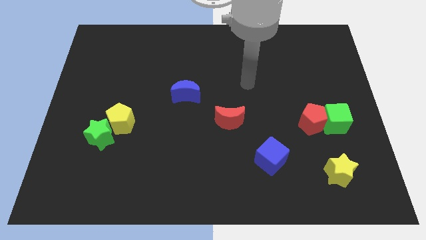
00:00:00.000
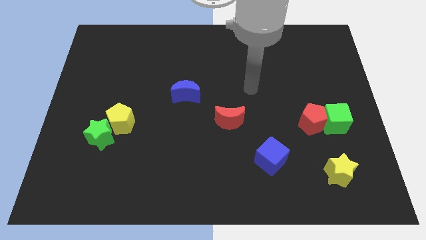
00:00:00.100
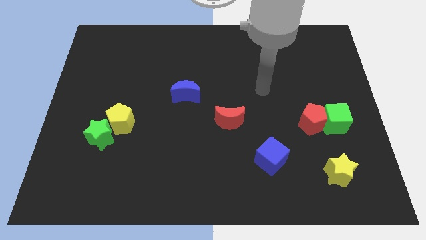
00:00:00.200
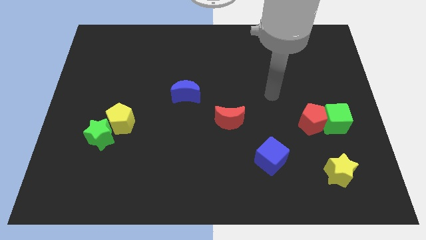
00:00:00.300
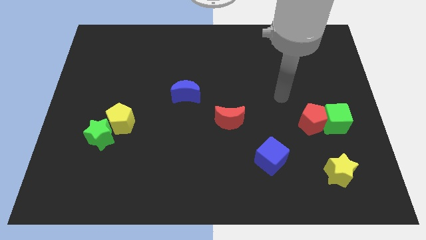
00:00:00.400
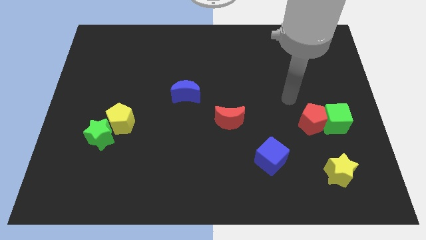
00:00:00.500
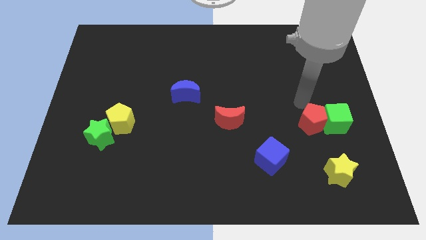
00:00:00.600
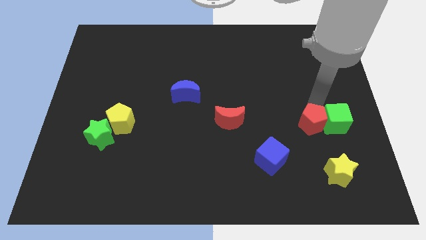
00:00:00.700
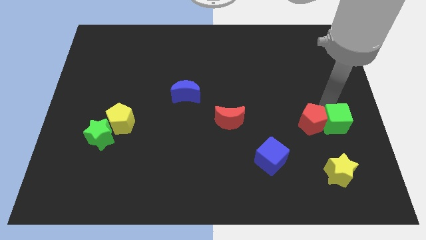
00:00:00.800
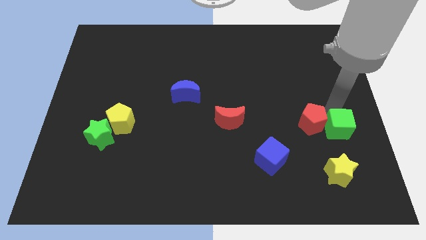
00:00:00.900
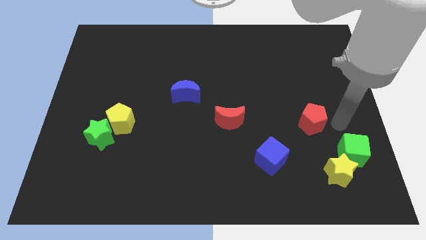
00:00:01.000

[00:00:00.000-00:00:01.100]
separate the red pentagon from the green cube

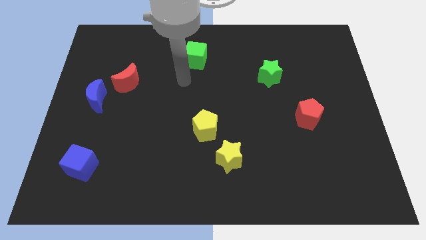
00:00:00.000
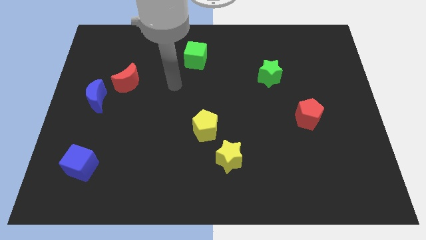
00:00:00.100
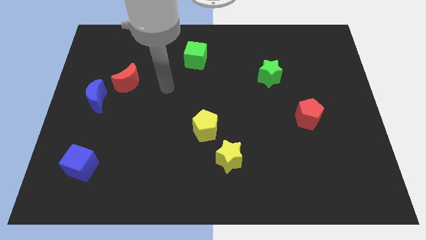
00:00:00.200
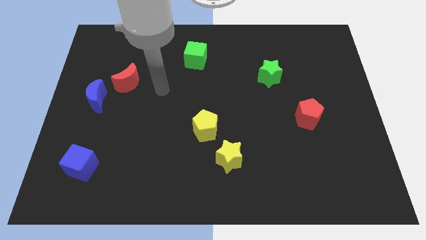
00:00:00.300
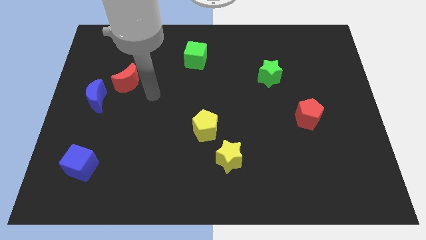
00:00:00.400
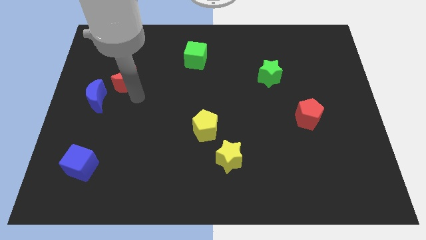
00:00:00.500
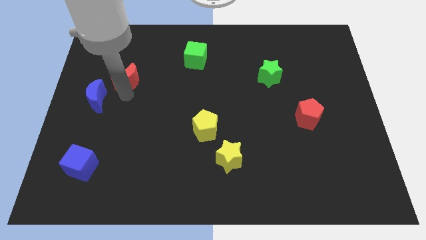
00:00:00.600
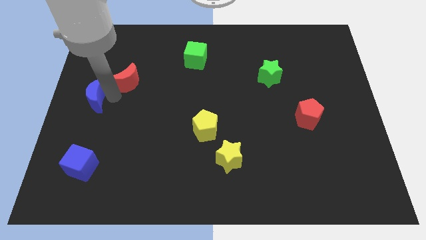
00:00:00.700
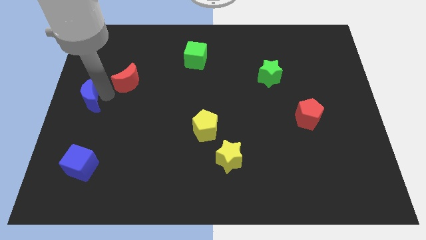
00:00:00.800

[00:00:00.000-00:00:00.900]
move the red moon away from the blue moon

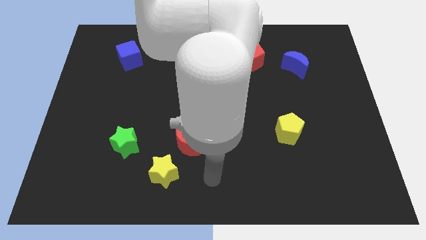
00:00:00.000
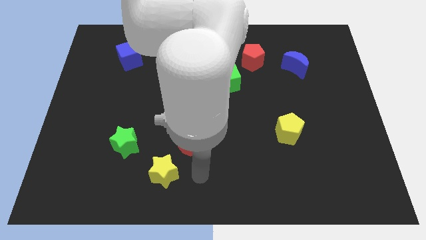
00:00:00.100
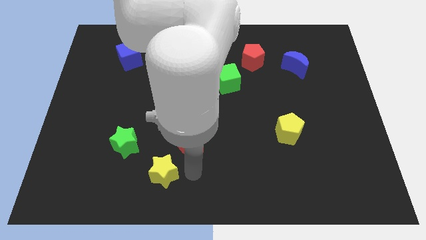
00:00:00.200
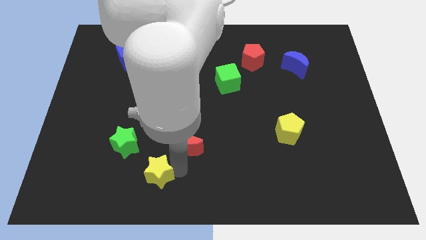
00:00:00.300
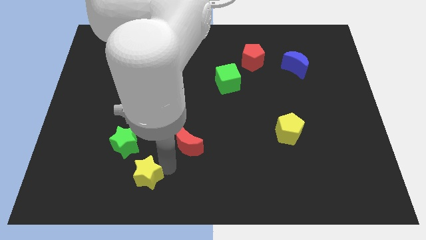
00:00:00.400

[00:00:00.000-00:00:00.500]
pull the red moon apart from the yellow star

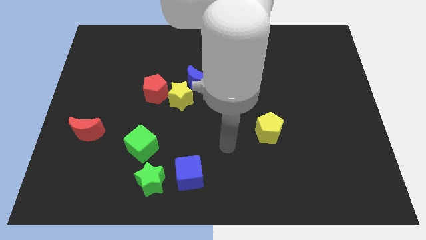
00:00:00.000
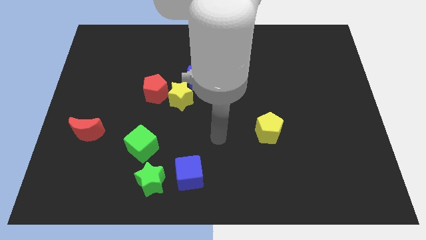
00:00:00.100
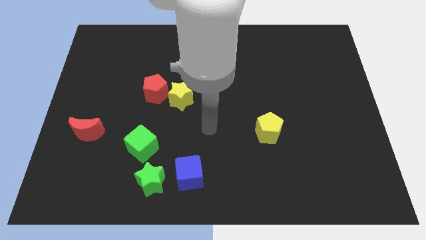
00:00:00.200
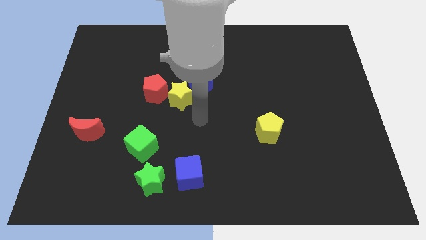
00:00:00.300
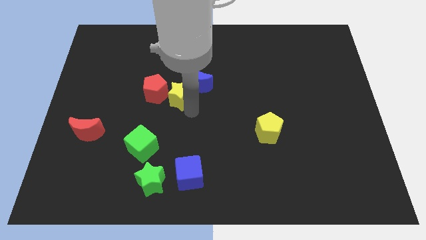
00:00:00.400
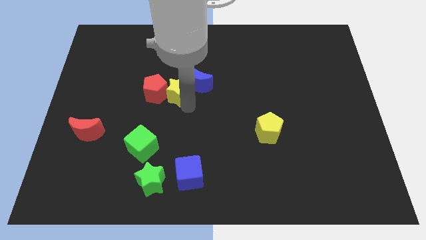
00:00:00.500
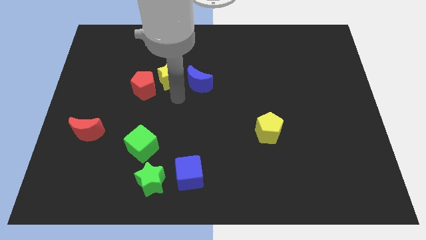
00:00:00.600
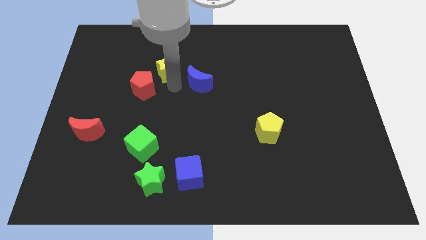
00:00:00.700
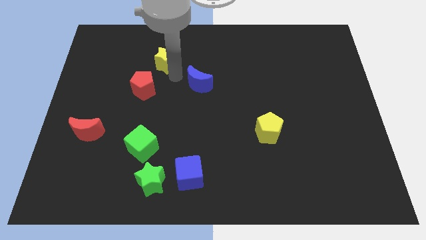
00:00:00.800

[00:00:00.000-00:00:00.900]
move the blue moon away from the yellow star

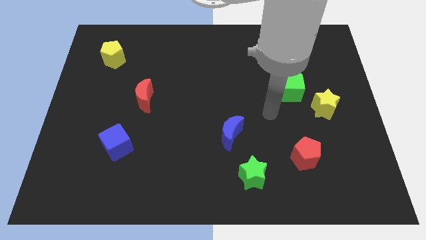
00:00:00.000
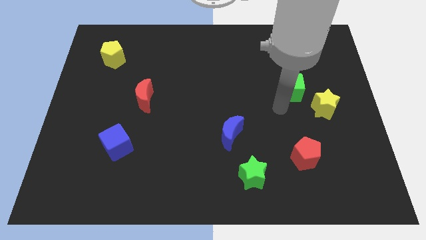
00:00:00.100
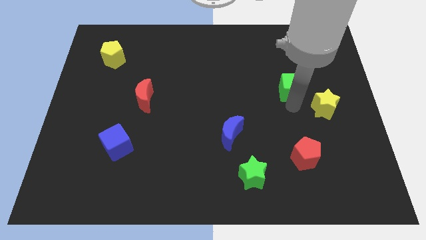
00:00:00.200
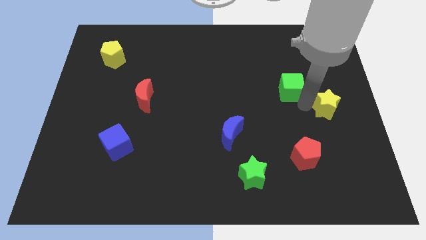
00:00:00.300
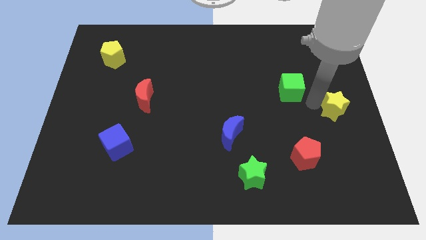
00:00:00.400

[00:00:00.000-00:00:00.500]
move the green cube away from the yellow star

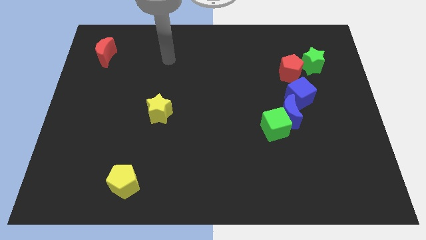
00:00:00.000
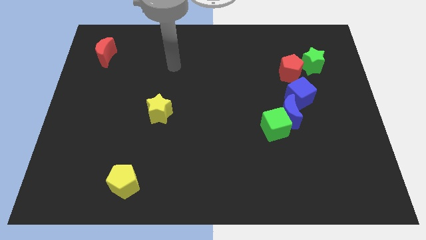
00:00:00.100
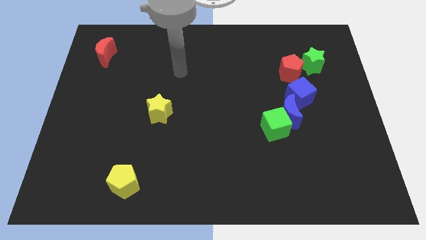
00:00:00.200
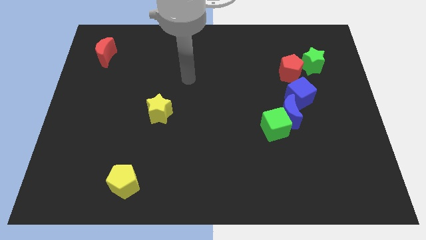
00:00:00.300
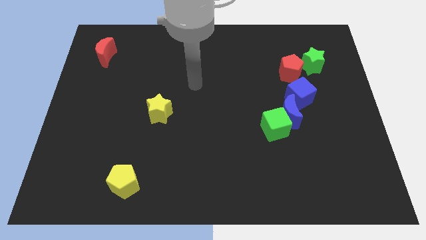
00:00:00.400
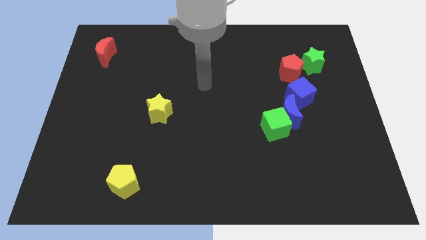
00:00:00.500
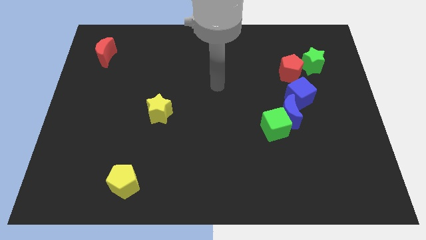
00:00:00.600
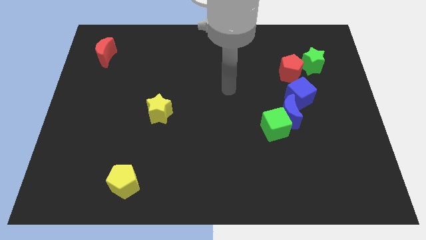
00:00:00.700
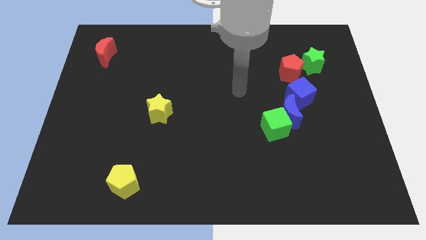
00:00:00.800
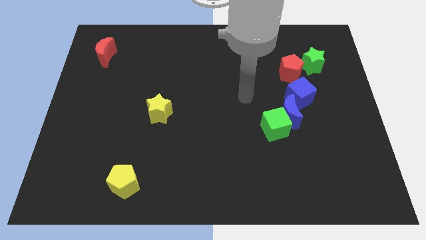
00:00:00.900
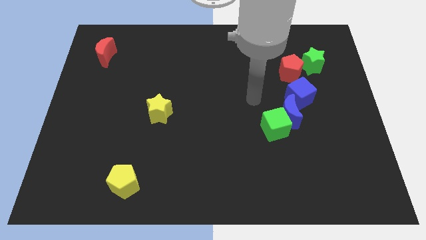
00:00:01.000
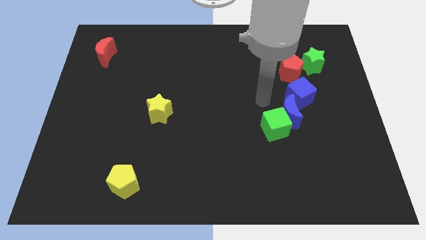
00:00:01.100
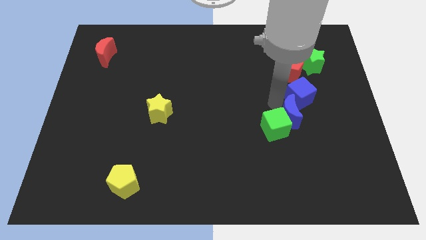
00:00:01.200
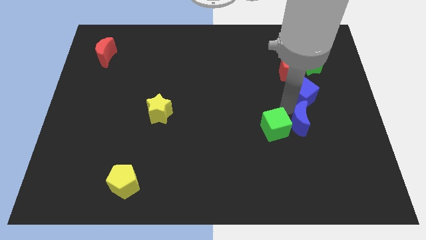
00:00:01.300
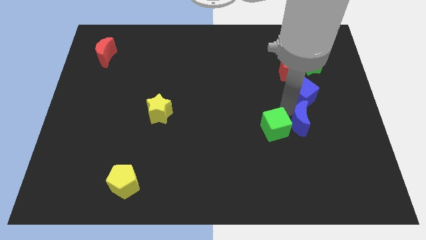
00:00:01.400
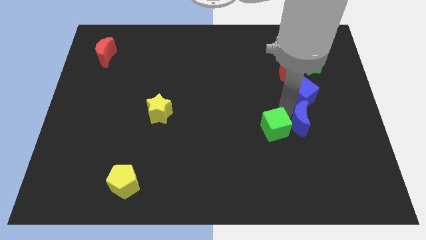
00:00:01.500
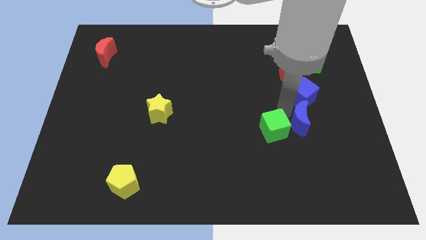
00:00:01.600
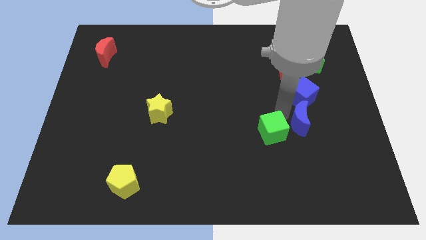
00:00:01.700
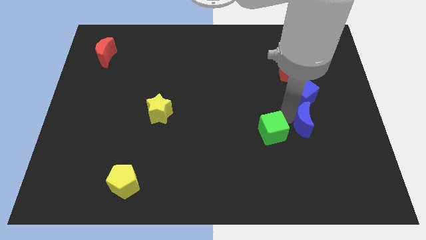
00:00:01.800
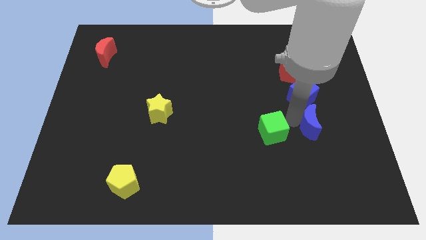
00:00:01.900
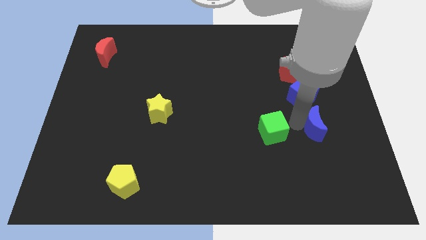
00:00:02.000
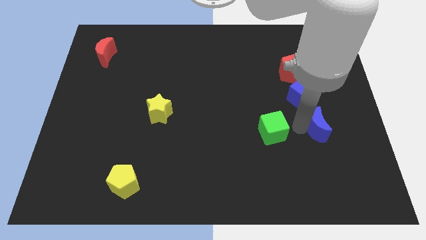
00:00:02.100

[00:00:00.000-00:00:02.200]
separate the green cube from the blue moon

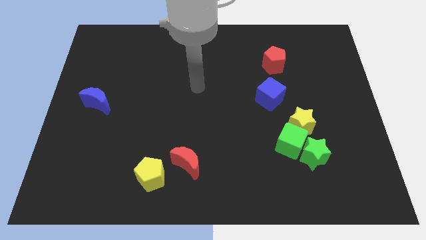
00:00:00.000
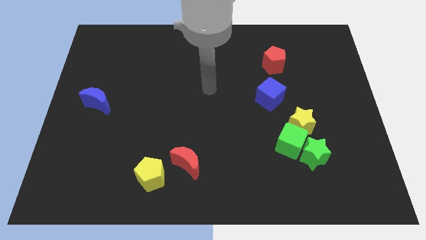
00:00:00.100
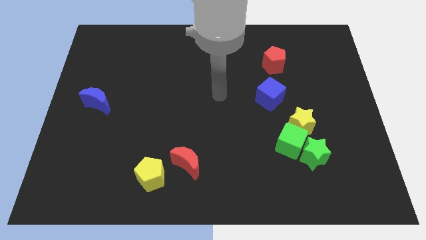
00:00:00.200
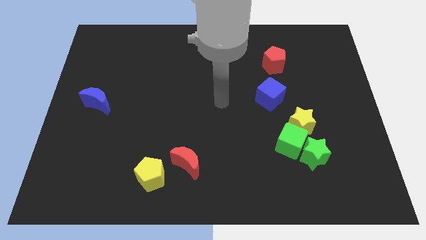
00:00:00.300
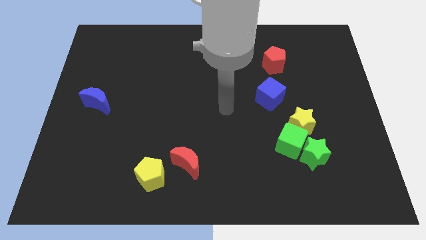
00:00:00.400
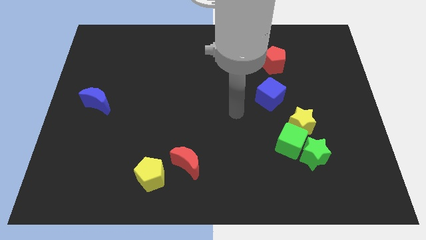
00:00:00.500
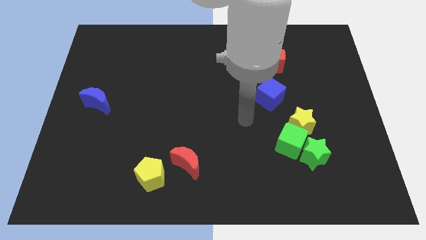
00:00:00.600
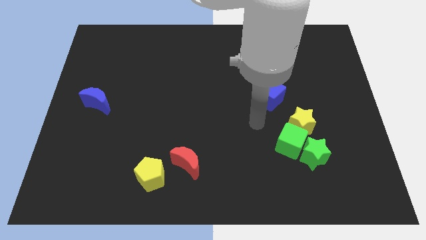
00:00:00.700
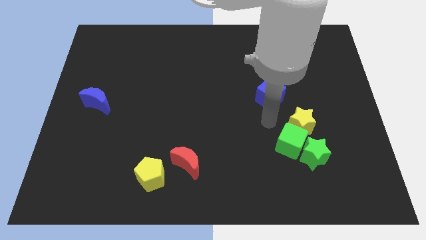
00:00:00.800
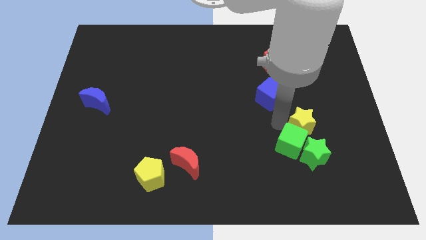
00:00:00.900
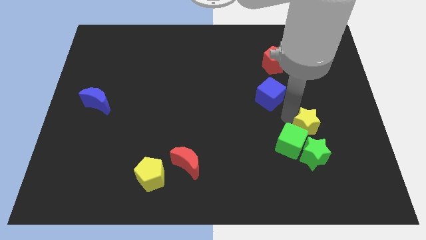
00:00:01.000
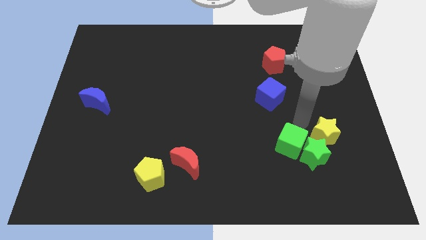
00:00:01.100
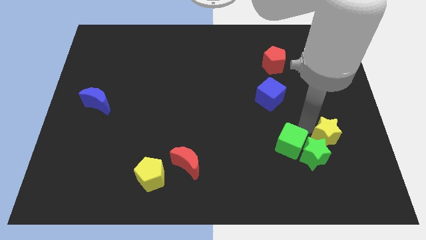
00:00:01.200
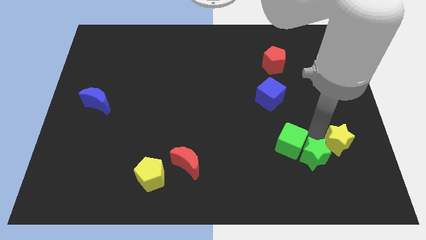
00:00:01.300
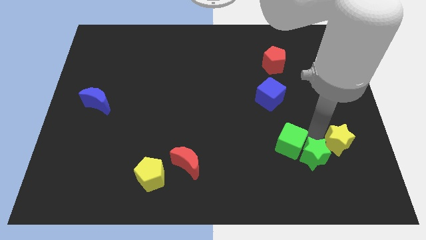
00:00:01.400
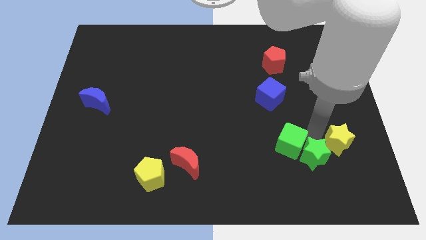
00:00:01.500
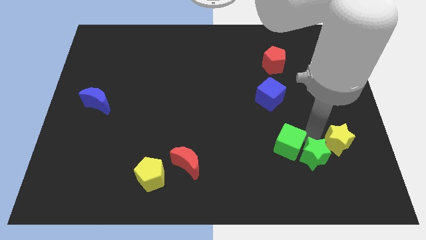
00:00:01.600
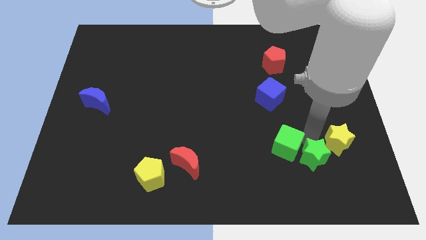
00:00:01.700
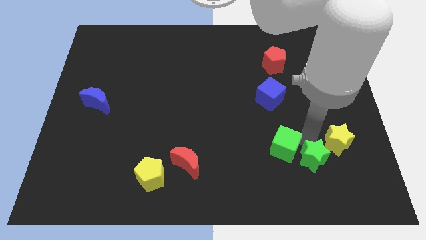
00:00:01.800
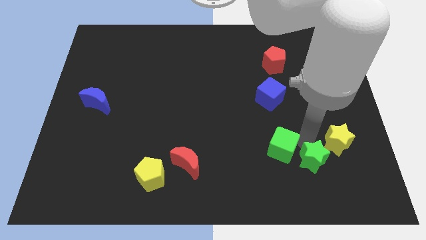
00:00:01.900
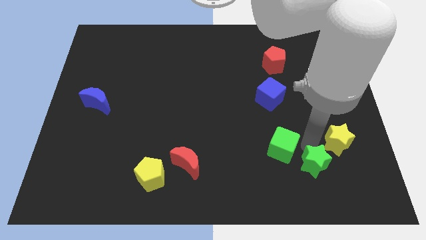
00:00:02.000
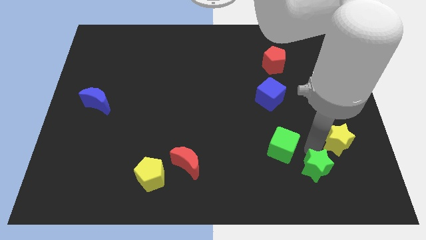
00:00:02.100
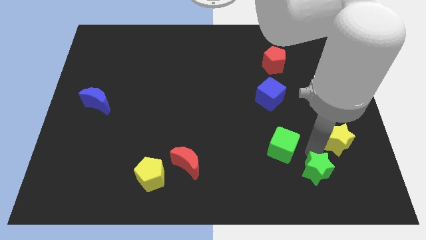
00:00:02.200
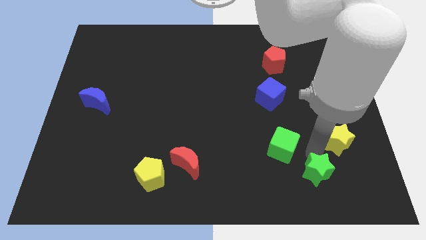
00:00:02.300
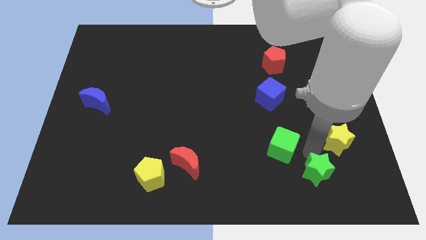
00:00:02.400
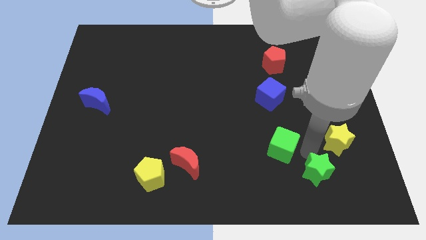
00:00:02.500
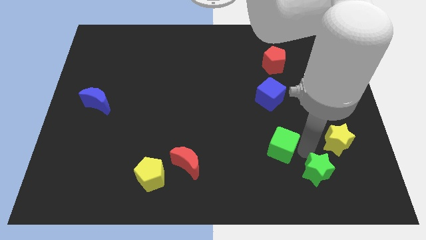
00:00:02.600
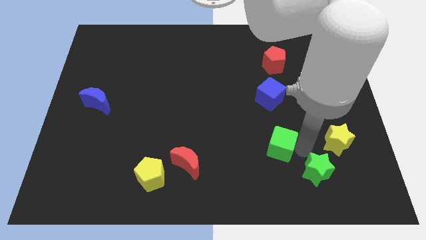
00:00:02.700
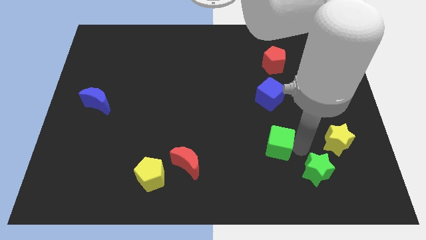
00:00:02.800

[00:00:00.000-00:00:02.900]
separate the green cube from the green star and yellow star

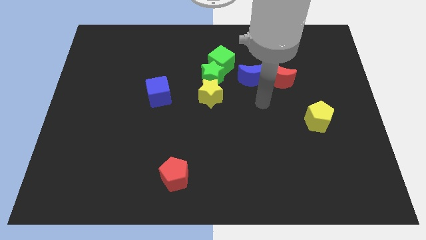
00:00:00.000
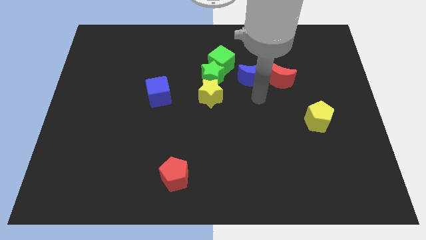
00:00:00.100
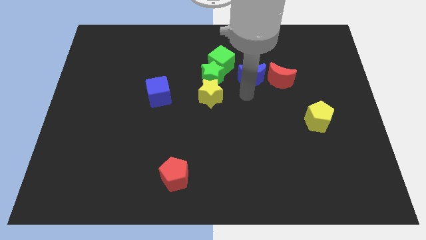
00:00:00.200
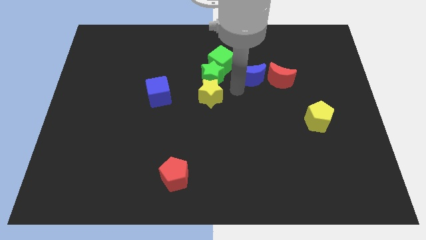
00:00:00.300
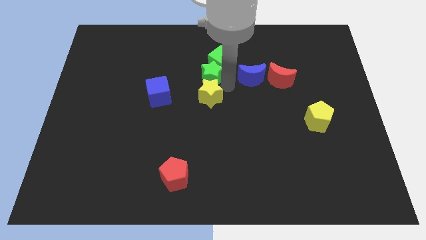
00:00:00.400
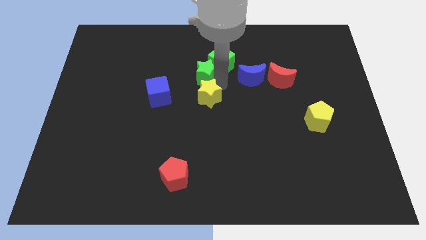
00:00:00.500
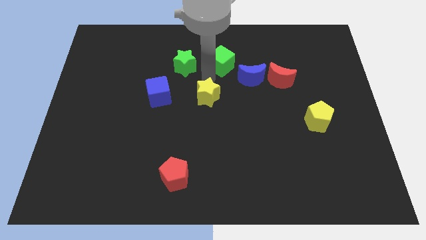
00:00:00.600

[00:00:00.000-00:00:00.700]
pull the yellow star apart from the green star
